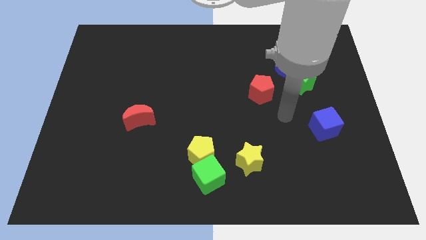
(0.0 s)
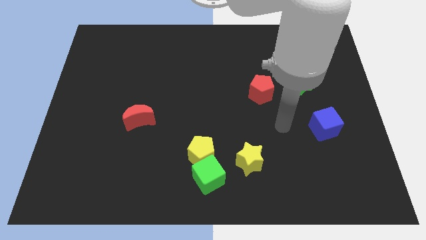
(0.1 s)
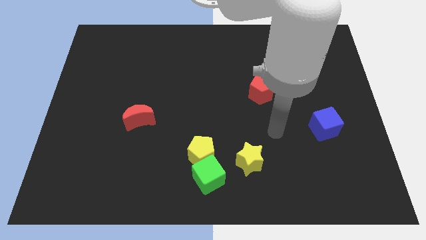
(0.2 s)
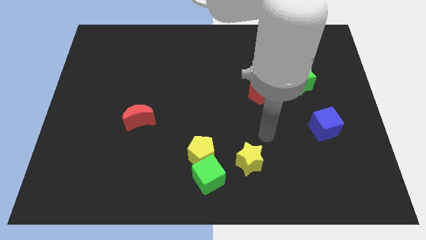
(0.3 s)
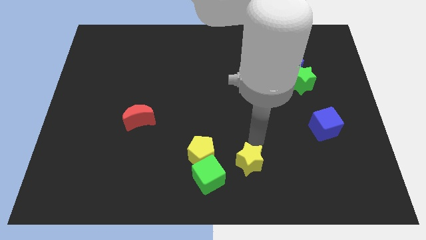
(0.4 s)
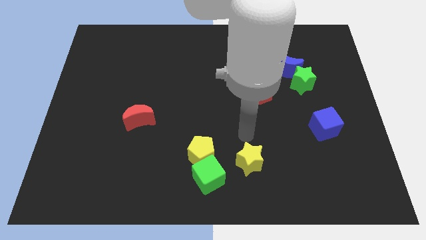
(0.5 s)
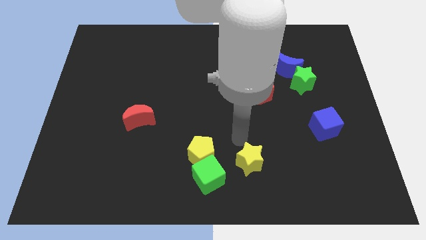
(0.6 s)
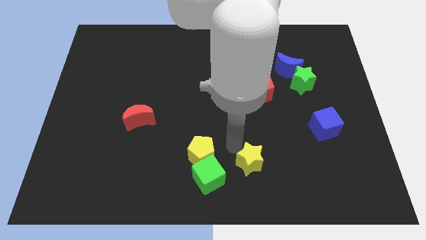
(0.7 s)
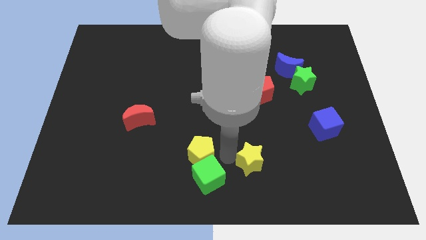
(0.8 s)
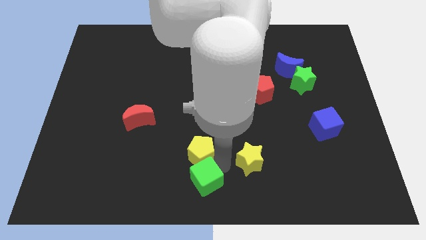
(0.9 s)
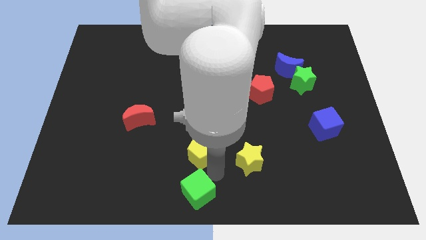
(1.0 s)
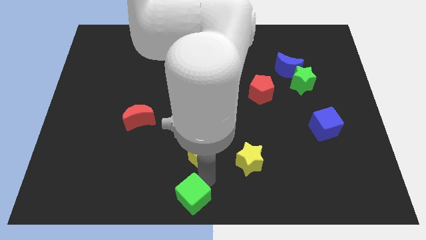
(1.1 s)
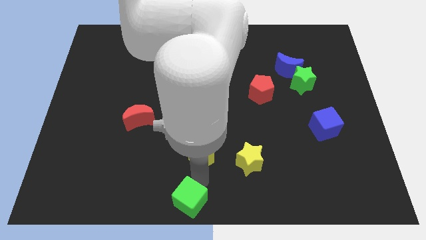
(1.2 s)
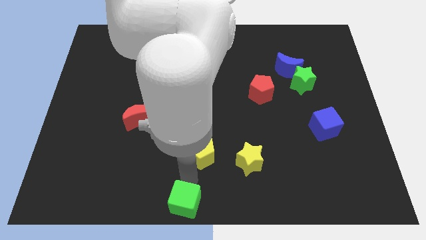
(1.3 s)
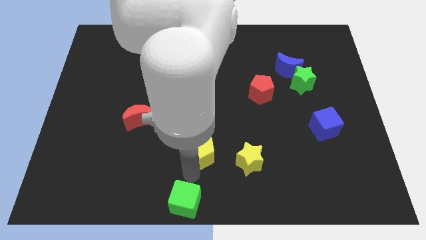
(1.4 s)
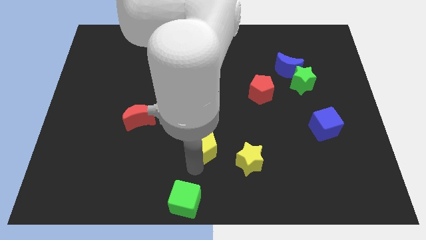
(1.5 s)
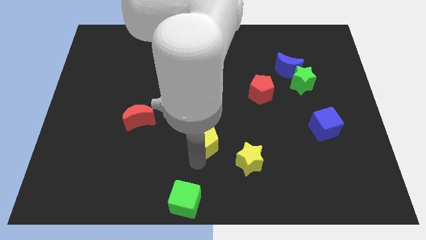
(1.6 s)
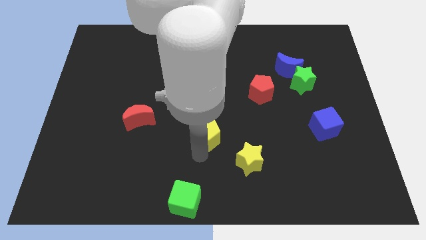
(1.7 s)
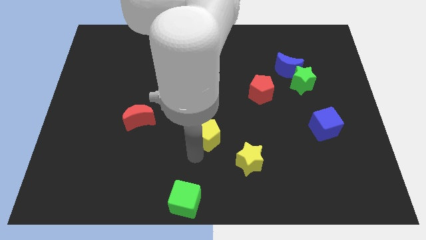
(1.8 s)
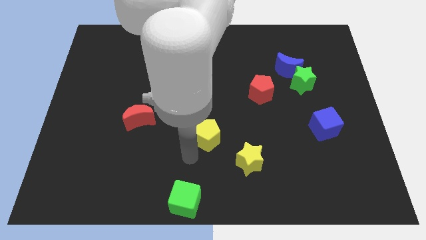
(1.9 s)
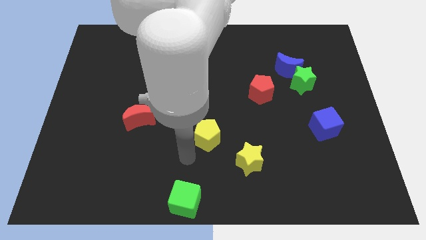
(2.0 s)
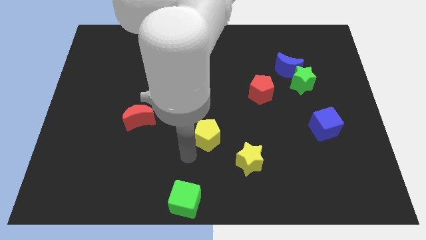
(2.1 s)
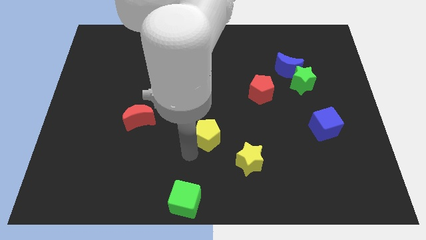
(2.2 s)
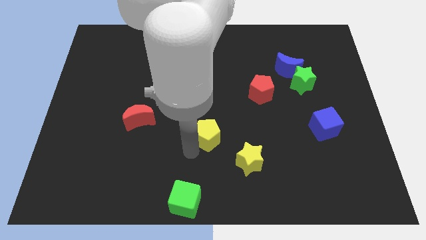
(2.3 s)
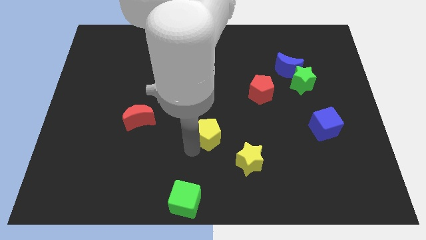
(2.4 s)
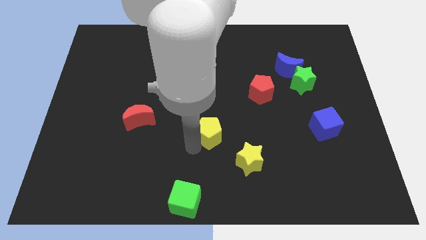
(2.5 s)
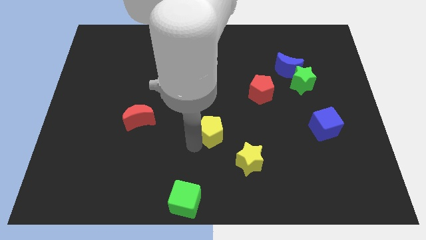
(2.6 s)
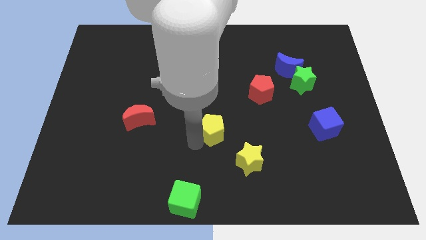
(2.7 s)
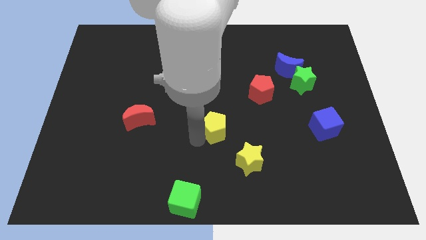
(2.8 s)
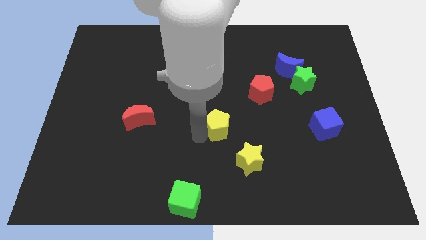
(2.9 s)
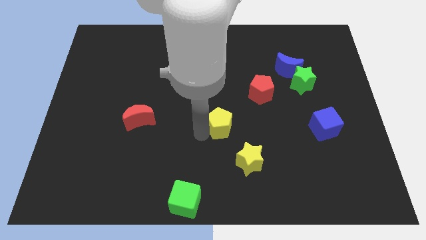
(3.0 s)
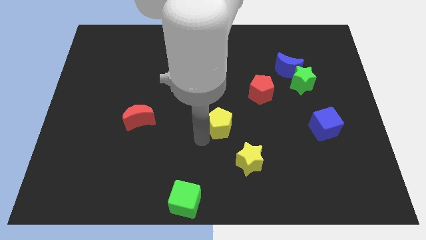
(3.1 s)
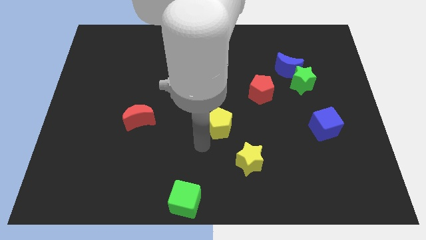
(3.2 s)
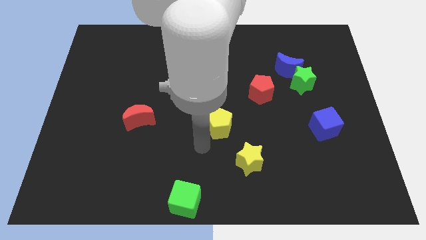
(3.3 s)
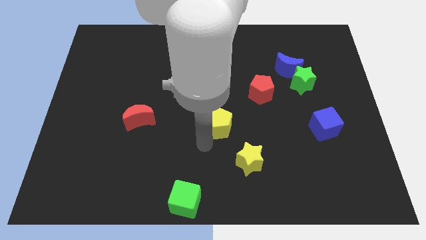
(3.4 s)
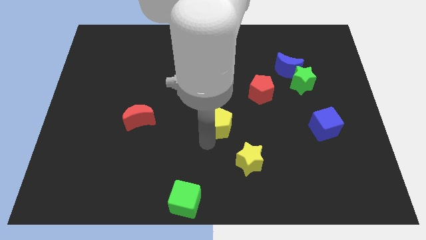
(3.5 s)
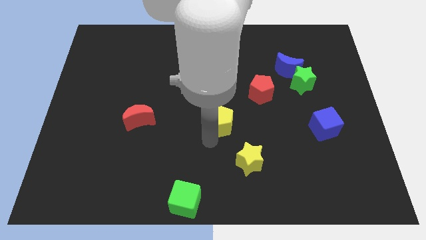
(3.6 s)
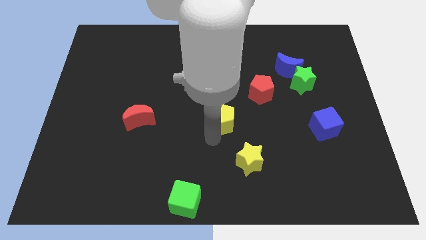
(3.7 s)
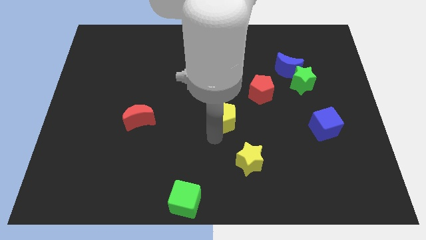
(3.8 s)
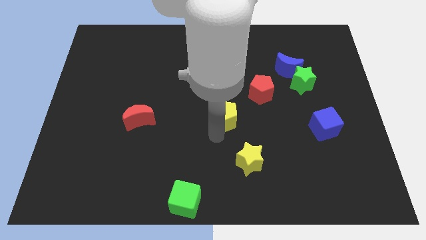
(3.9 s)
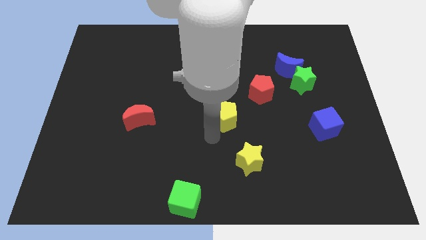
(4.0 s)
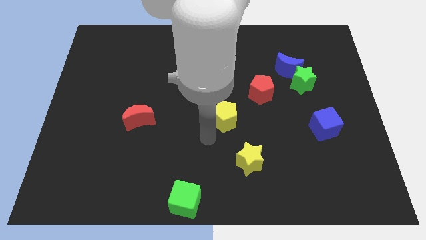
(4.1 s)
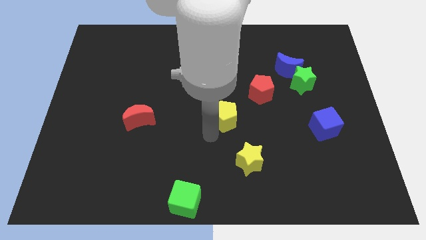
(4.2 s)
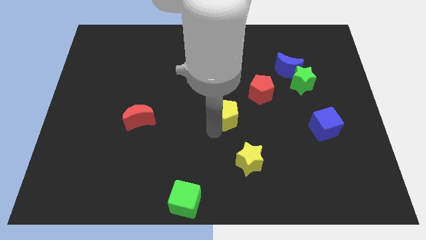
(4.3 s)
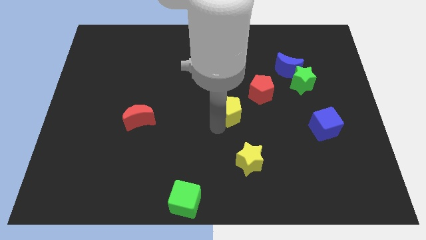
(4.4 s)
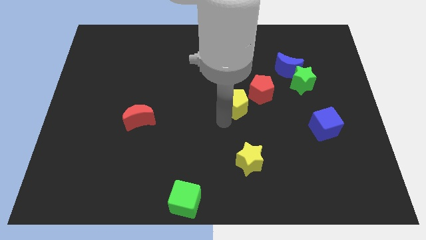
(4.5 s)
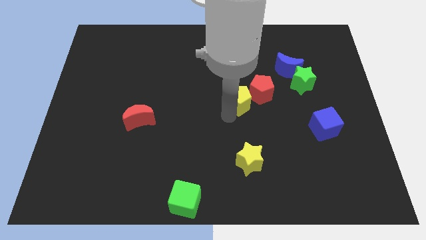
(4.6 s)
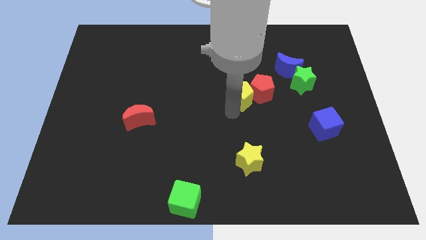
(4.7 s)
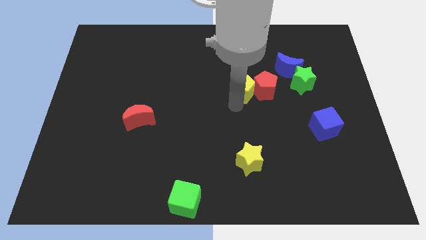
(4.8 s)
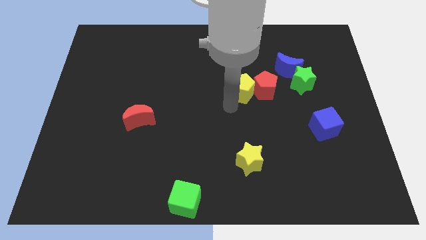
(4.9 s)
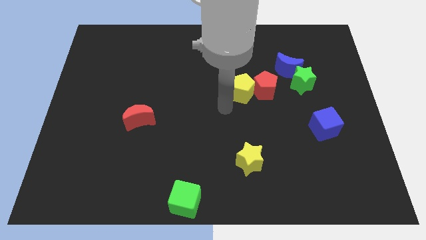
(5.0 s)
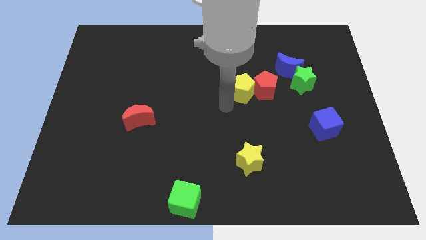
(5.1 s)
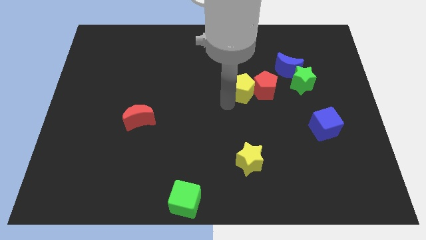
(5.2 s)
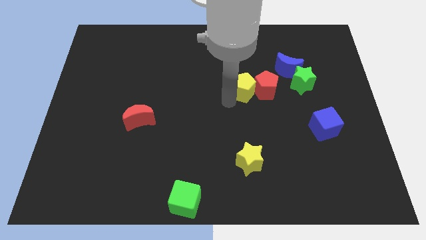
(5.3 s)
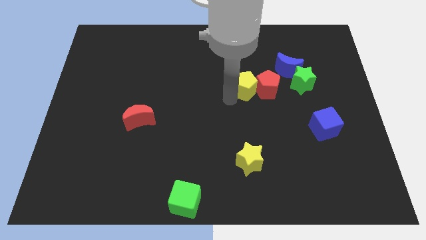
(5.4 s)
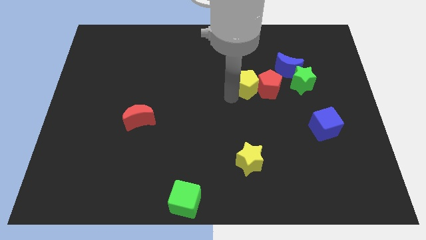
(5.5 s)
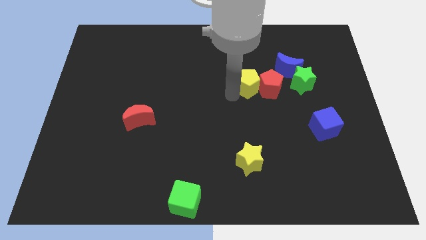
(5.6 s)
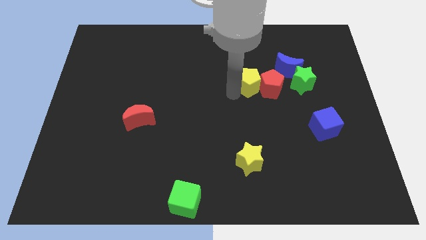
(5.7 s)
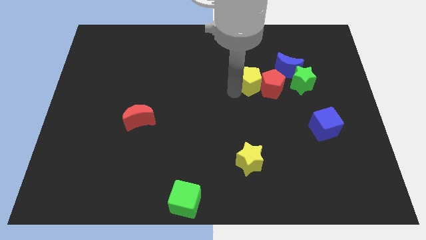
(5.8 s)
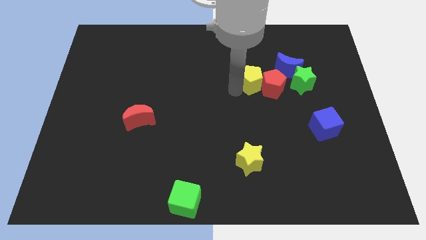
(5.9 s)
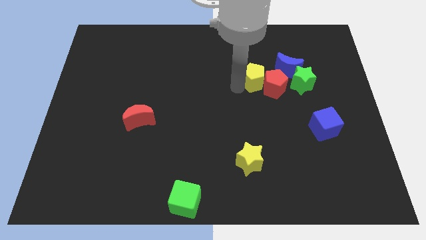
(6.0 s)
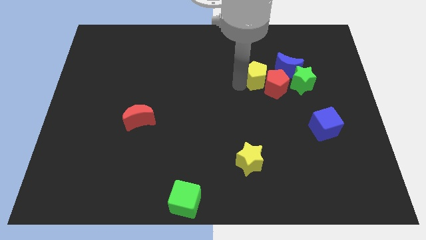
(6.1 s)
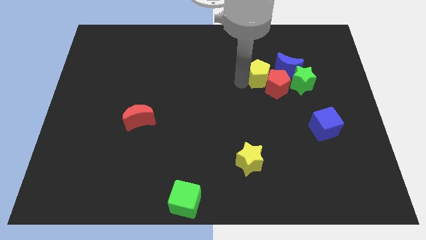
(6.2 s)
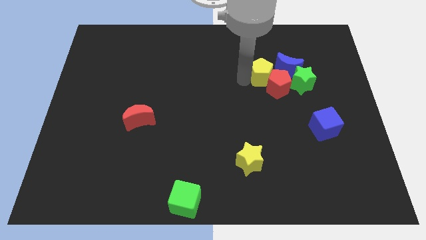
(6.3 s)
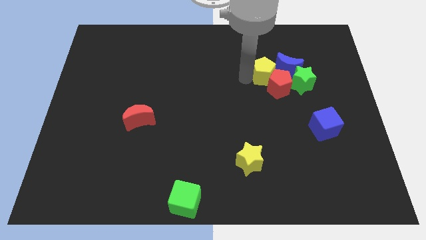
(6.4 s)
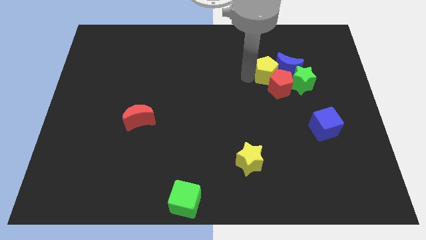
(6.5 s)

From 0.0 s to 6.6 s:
put the yellow pentagon to the blue moon

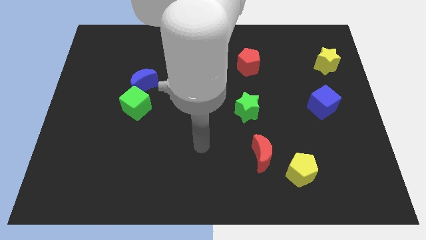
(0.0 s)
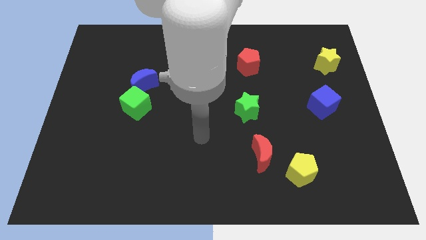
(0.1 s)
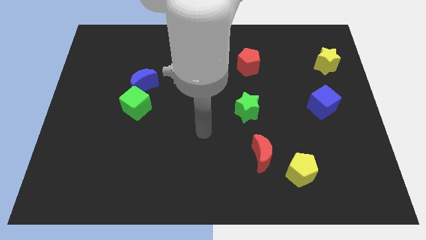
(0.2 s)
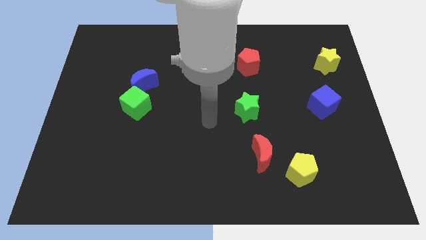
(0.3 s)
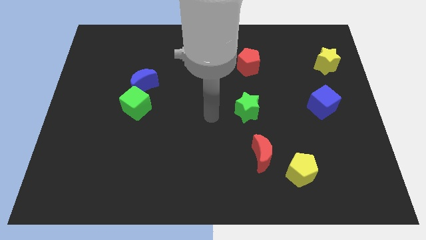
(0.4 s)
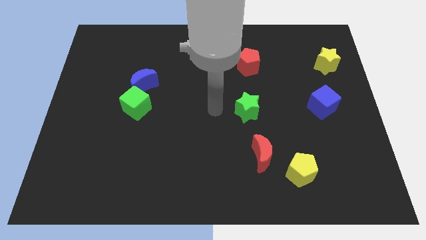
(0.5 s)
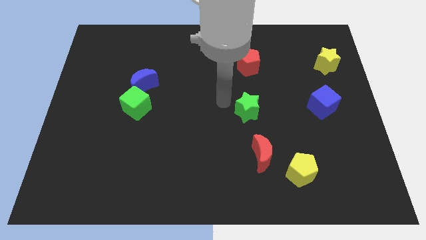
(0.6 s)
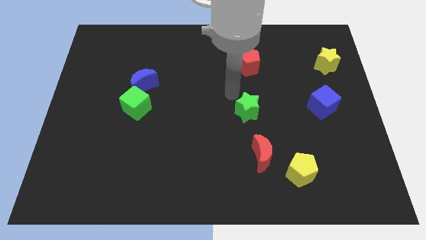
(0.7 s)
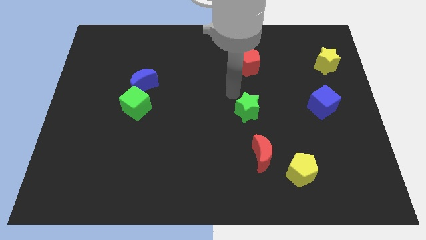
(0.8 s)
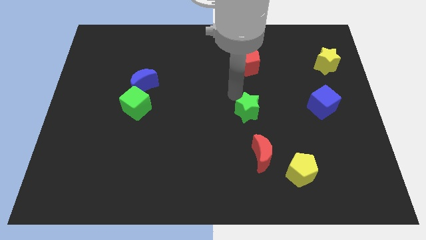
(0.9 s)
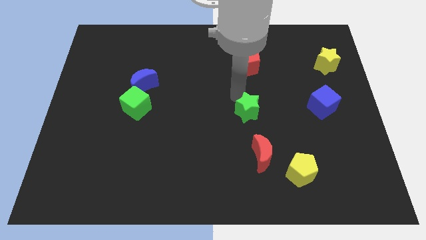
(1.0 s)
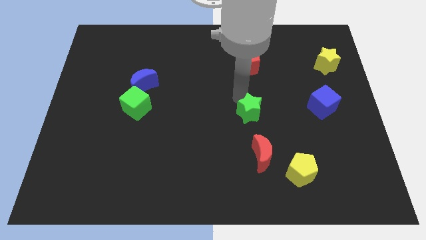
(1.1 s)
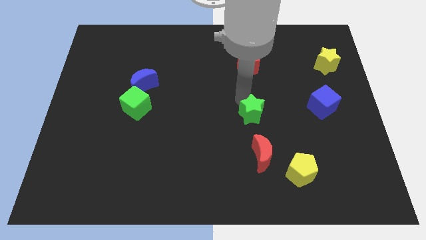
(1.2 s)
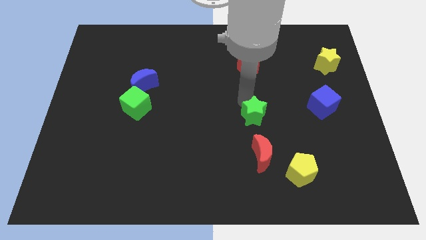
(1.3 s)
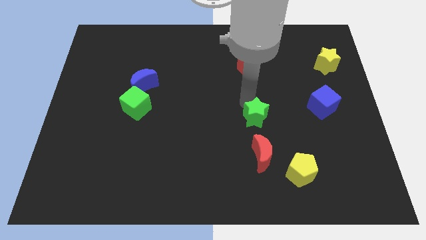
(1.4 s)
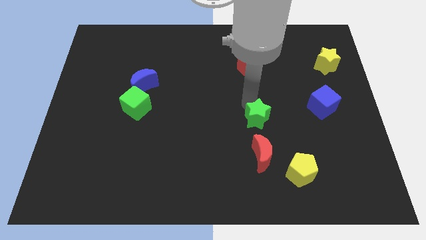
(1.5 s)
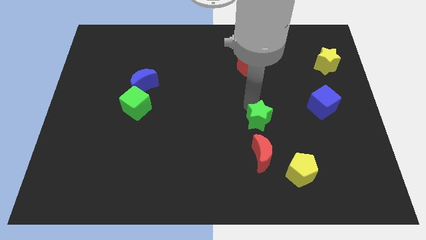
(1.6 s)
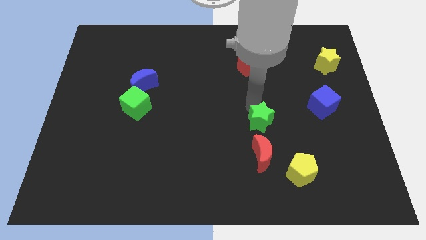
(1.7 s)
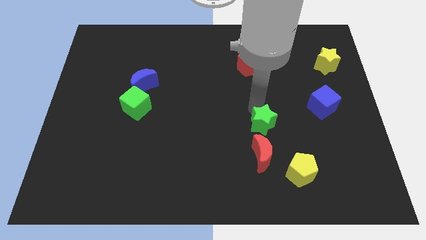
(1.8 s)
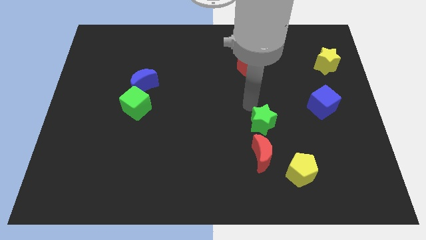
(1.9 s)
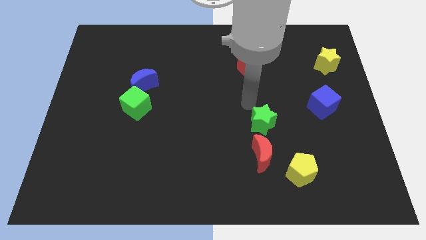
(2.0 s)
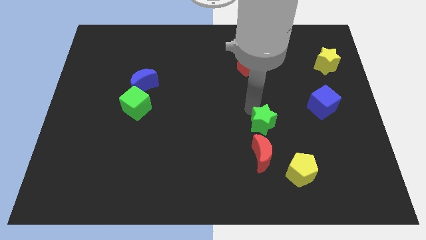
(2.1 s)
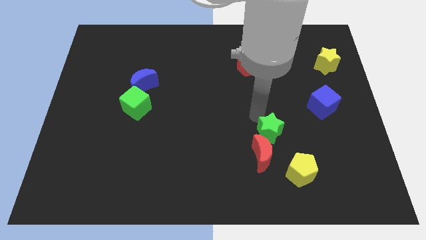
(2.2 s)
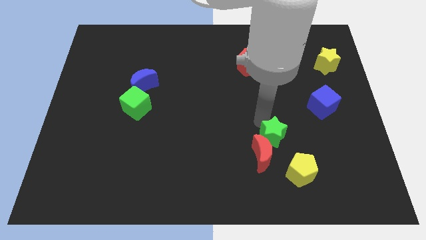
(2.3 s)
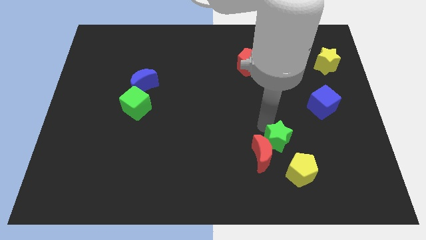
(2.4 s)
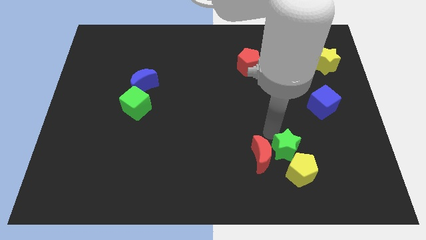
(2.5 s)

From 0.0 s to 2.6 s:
push the green star to the yellow pentagon
